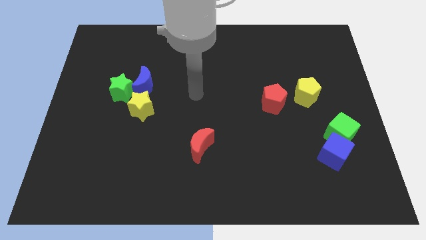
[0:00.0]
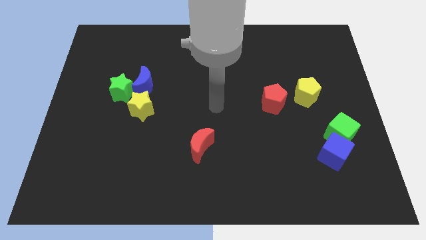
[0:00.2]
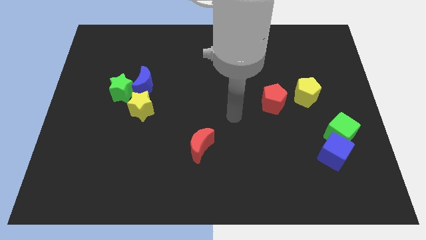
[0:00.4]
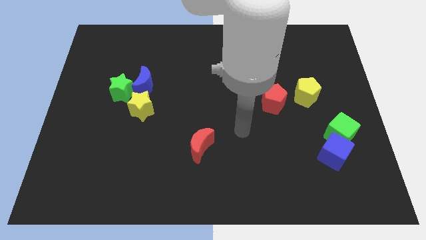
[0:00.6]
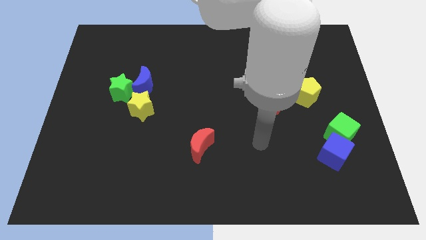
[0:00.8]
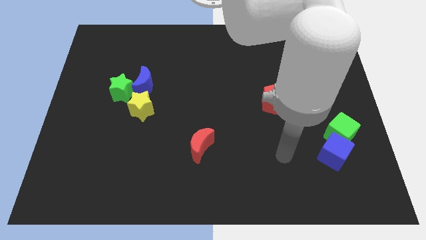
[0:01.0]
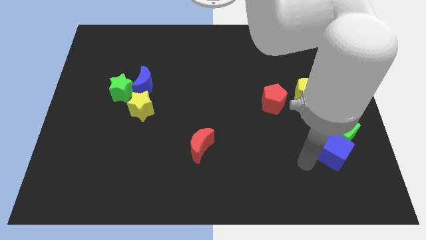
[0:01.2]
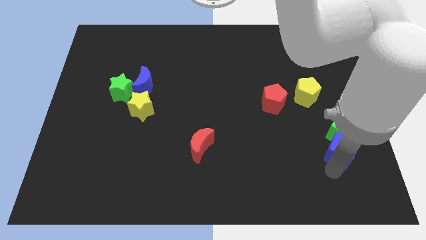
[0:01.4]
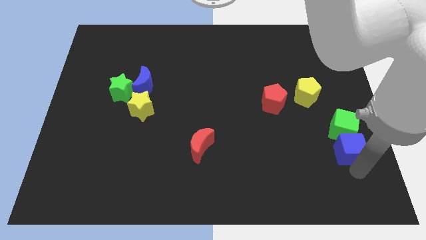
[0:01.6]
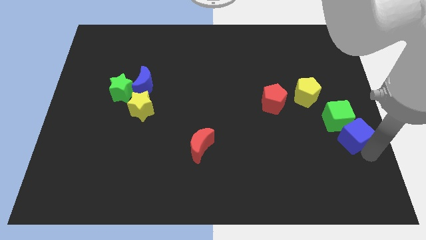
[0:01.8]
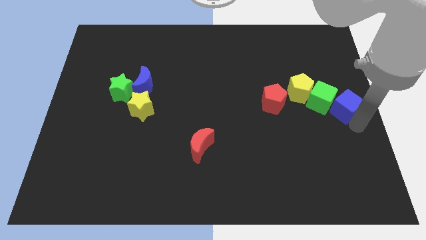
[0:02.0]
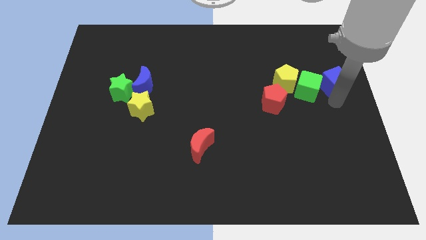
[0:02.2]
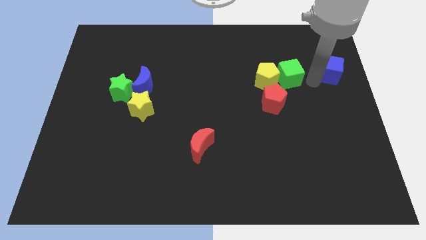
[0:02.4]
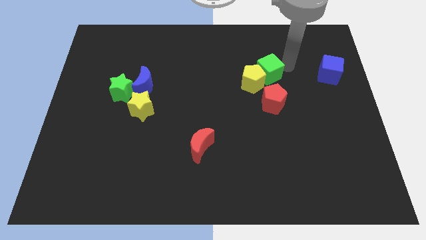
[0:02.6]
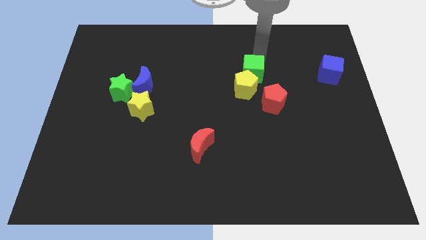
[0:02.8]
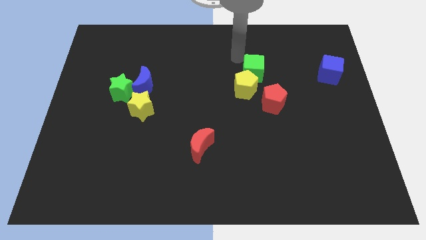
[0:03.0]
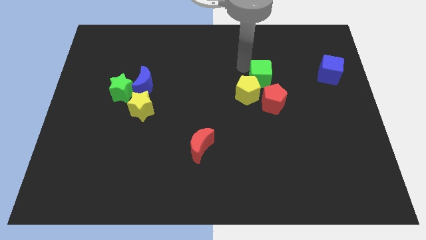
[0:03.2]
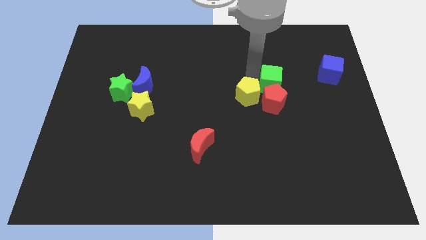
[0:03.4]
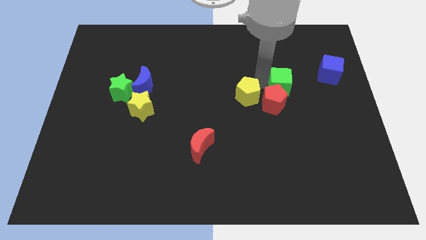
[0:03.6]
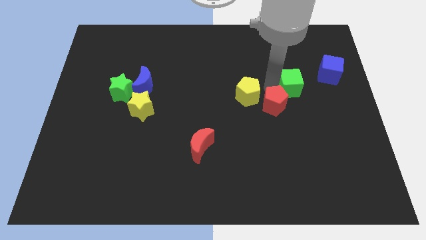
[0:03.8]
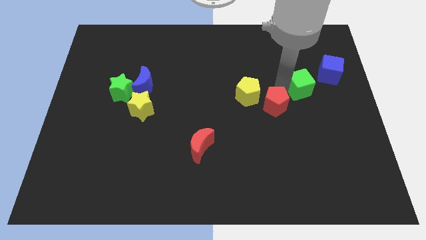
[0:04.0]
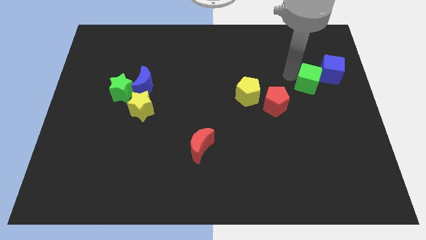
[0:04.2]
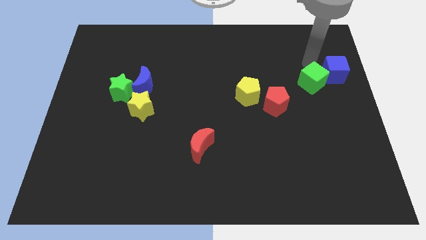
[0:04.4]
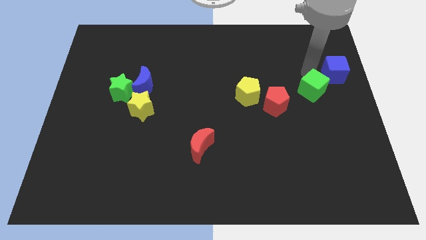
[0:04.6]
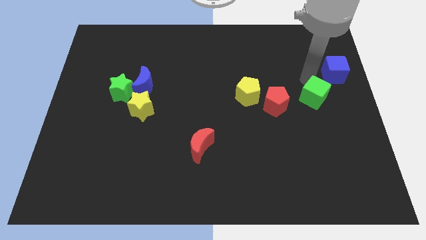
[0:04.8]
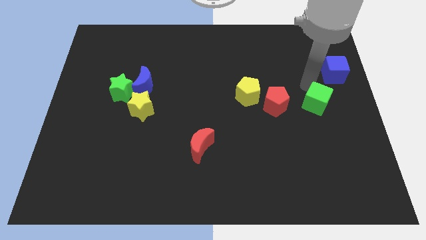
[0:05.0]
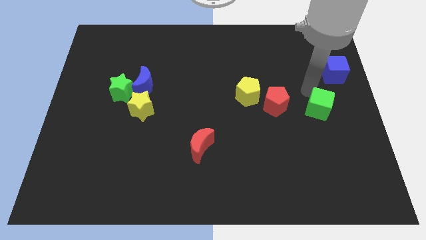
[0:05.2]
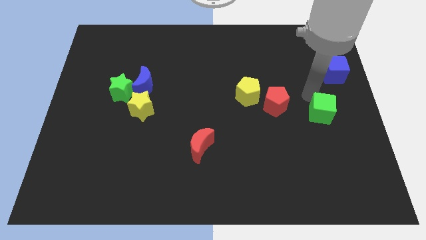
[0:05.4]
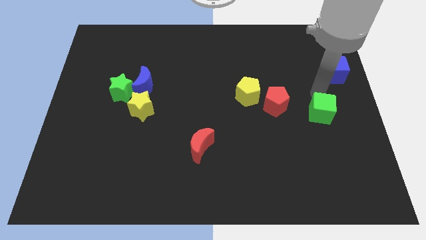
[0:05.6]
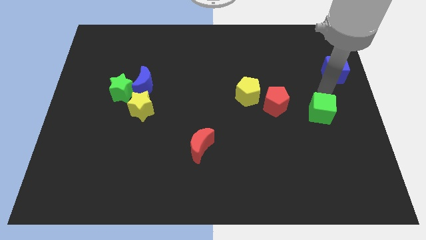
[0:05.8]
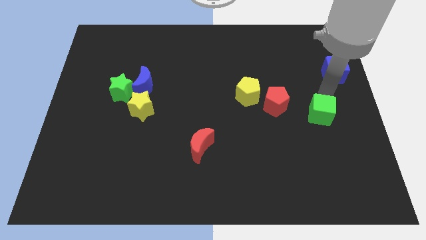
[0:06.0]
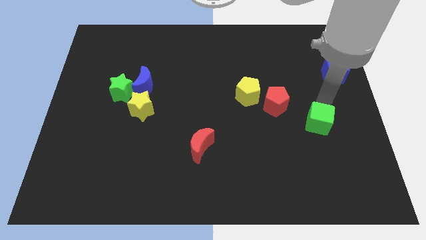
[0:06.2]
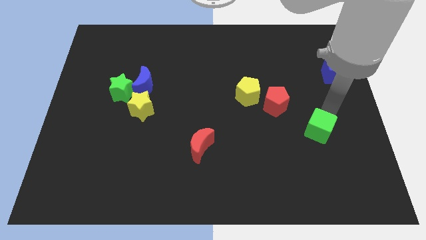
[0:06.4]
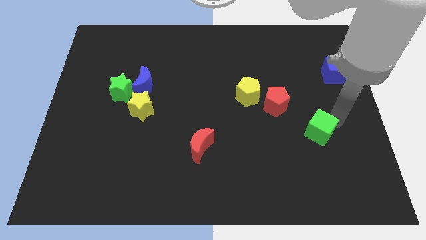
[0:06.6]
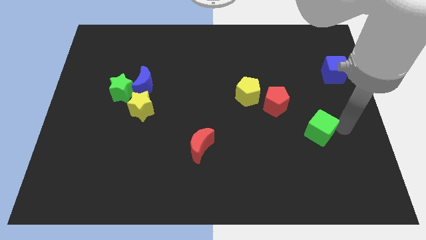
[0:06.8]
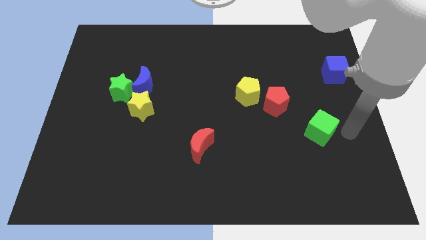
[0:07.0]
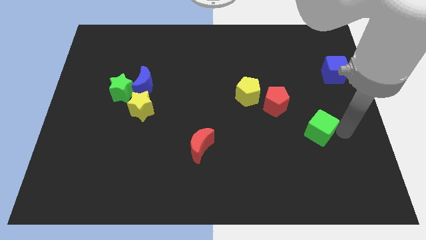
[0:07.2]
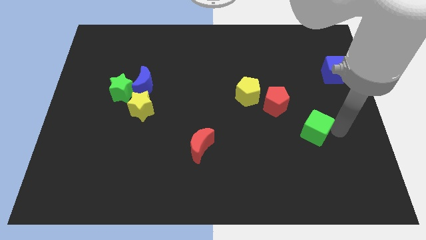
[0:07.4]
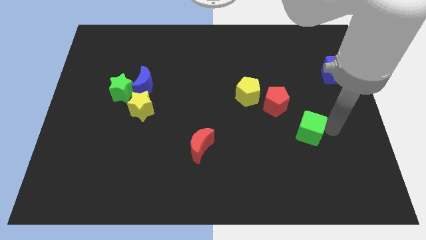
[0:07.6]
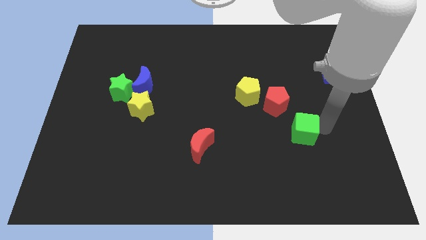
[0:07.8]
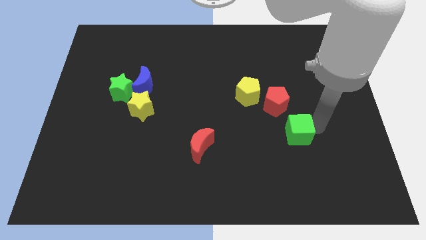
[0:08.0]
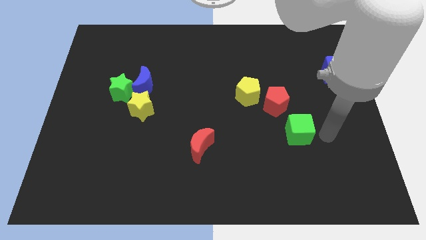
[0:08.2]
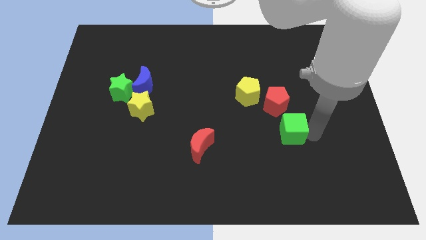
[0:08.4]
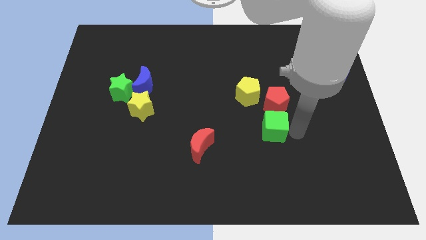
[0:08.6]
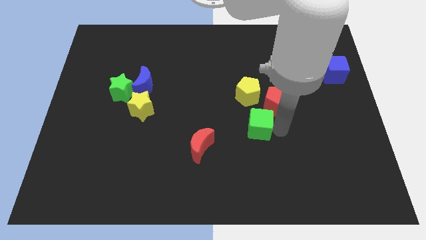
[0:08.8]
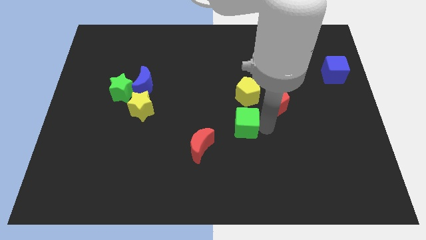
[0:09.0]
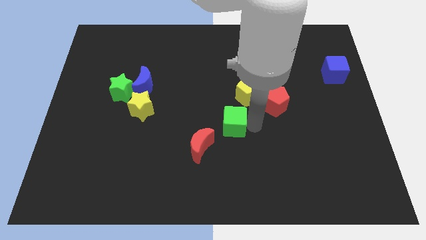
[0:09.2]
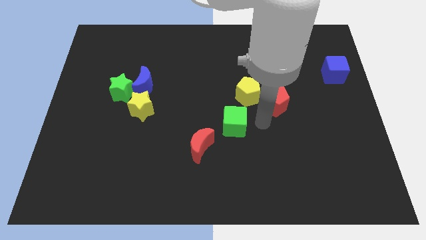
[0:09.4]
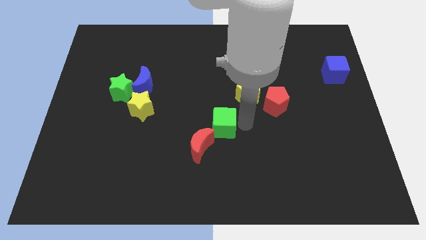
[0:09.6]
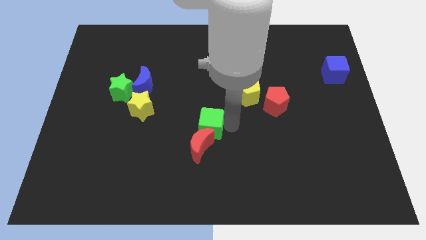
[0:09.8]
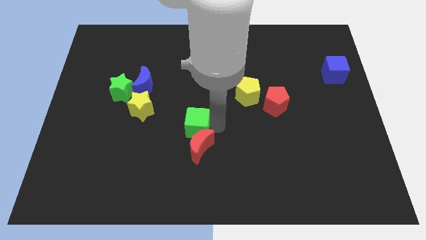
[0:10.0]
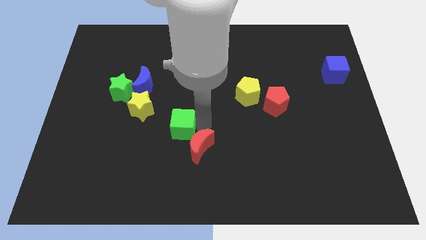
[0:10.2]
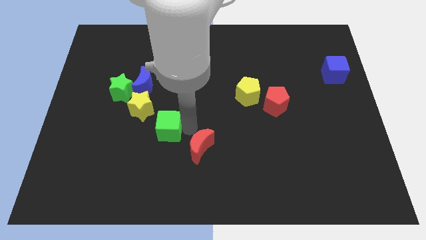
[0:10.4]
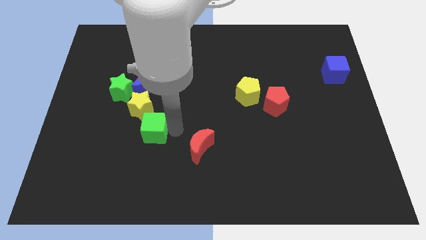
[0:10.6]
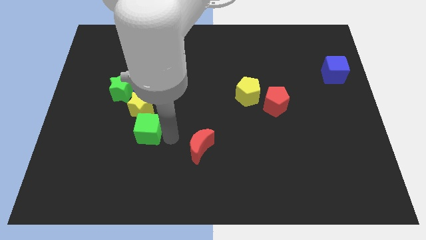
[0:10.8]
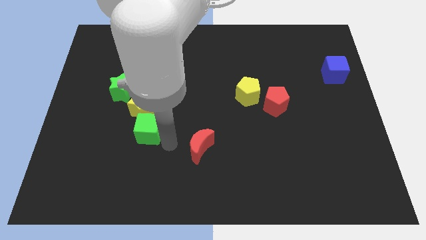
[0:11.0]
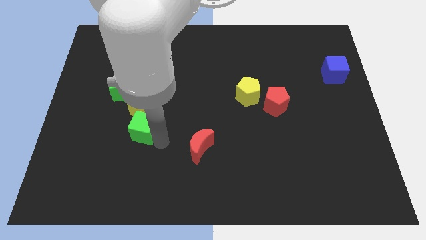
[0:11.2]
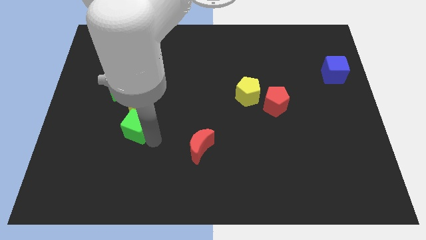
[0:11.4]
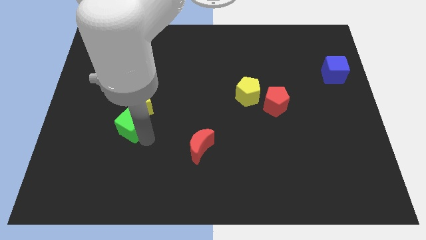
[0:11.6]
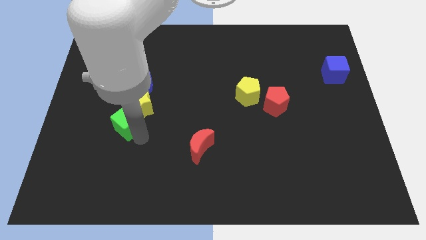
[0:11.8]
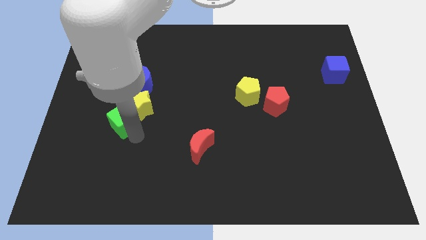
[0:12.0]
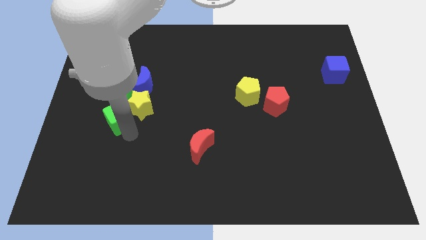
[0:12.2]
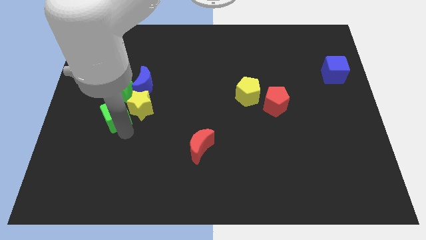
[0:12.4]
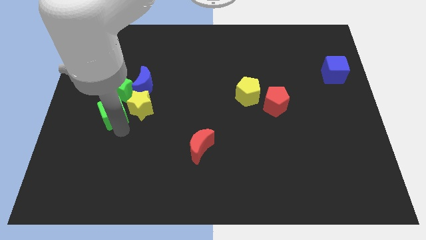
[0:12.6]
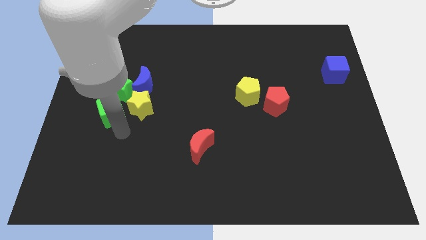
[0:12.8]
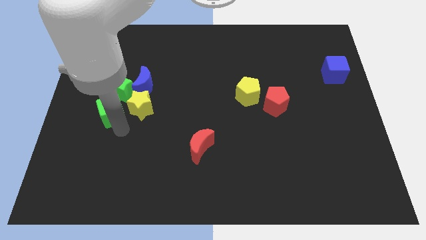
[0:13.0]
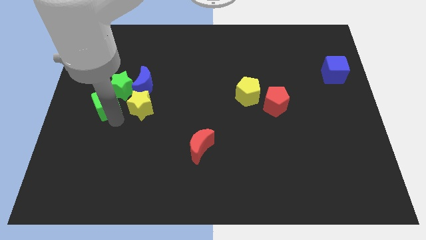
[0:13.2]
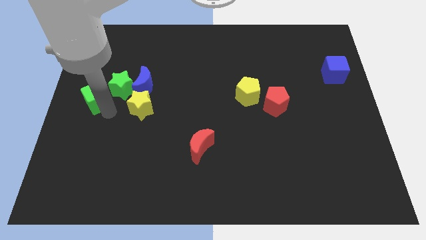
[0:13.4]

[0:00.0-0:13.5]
move the green cube to the left of the blue moon

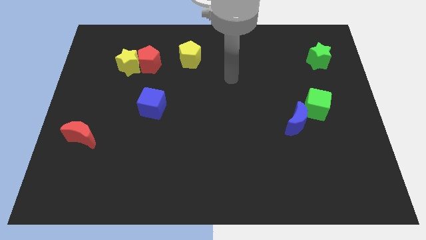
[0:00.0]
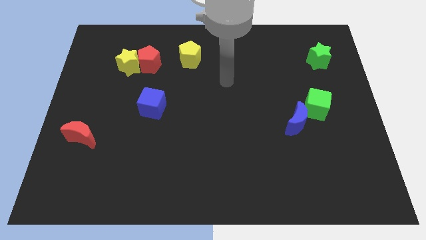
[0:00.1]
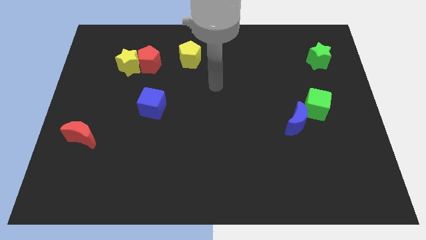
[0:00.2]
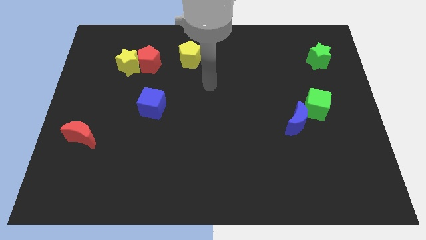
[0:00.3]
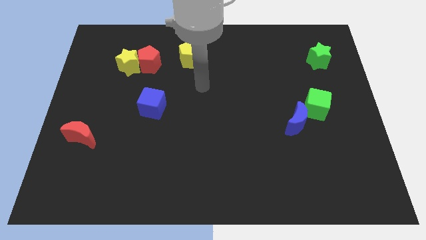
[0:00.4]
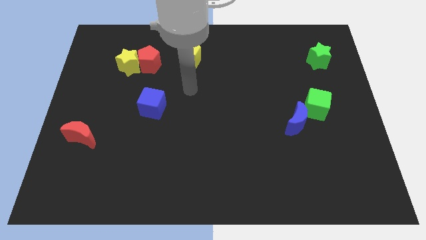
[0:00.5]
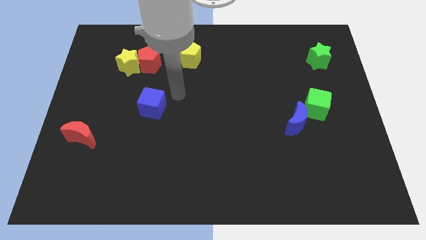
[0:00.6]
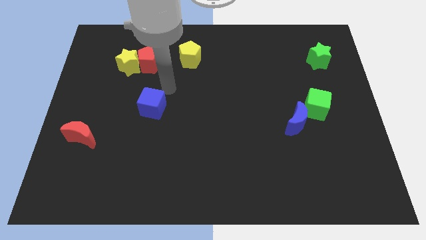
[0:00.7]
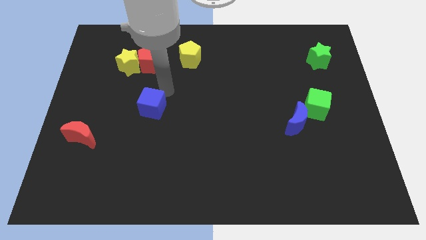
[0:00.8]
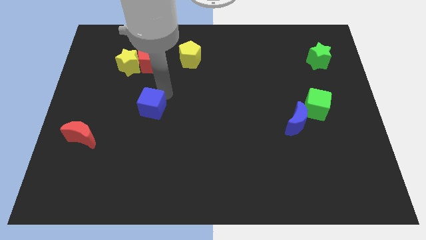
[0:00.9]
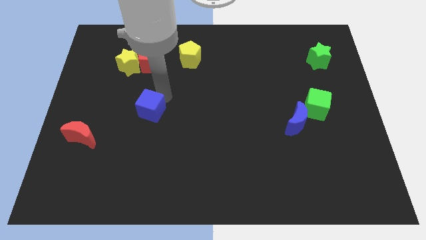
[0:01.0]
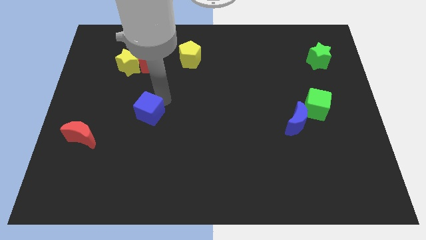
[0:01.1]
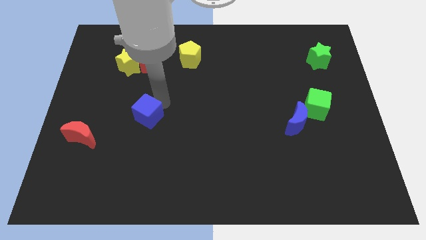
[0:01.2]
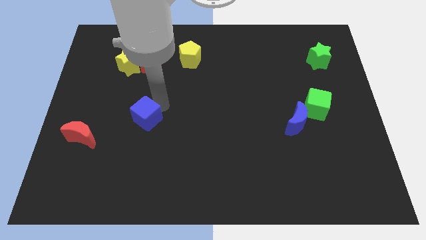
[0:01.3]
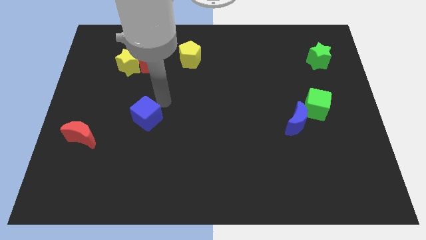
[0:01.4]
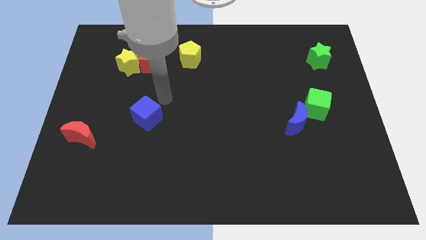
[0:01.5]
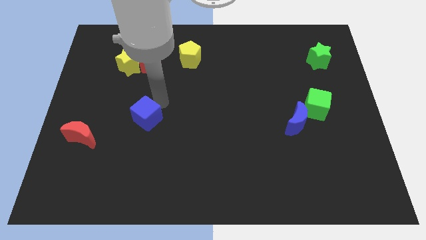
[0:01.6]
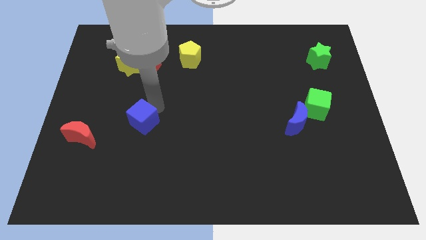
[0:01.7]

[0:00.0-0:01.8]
move the blue cube to the right of the red moon
